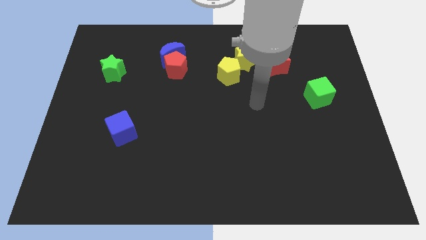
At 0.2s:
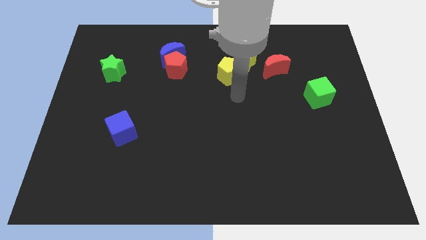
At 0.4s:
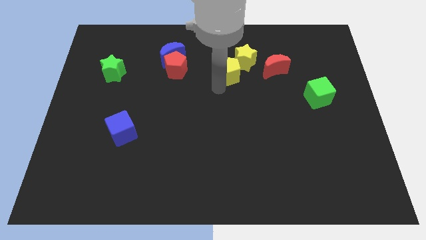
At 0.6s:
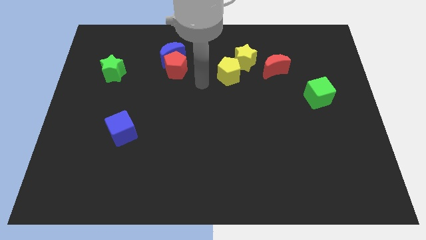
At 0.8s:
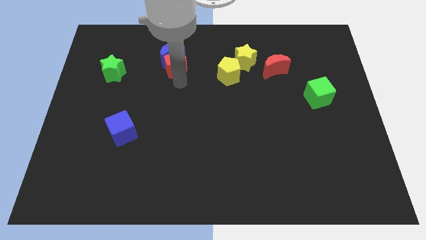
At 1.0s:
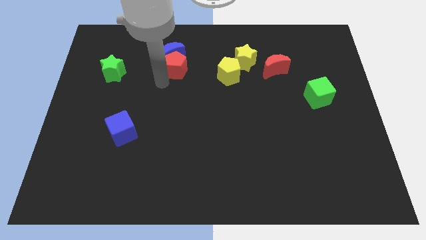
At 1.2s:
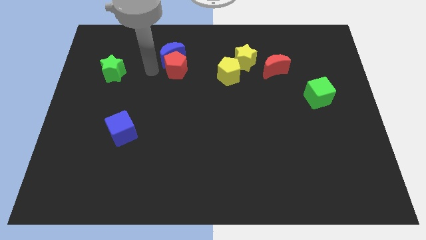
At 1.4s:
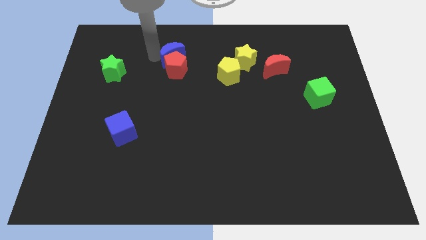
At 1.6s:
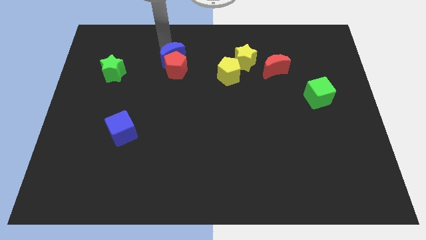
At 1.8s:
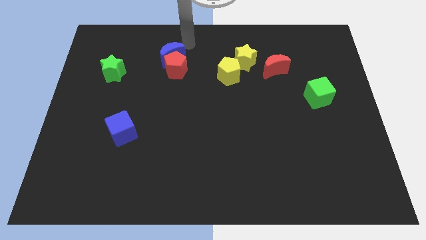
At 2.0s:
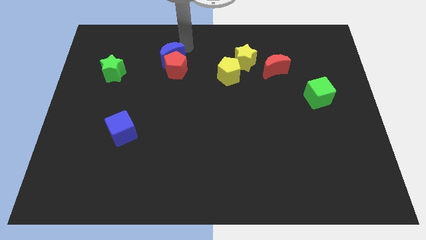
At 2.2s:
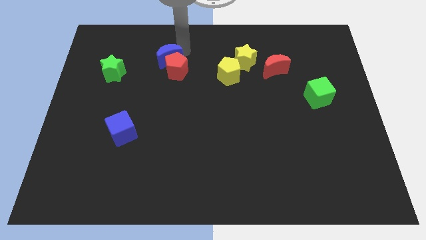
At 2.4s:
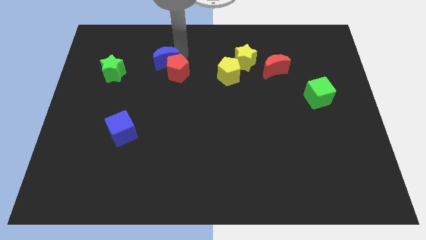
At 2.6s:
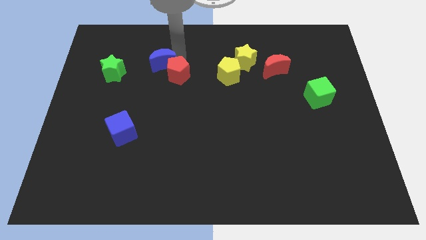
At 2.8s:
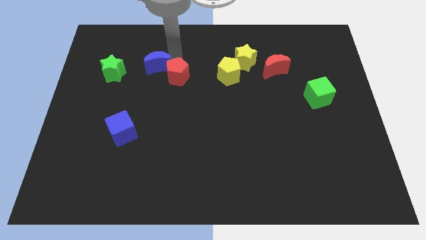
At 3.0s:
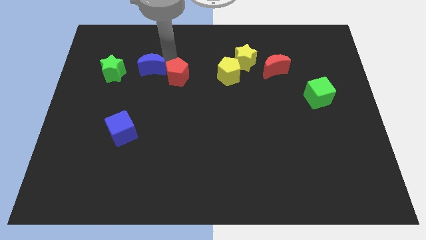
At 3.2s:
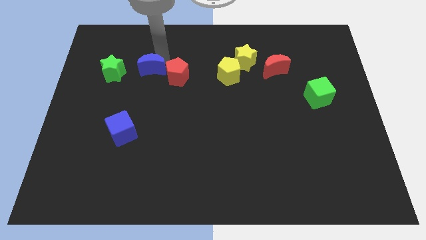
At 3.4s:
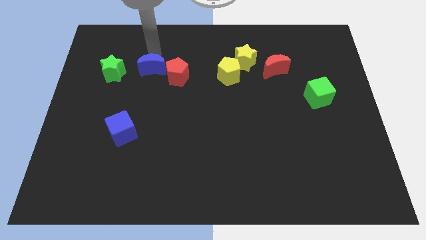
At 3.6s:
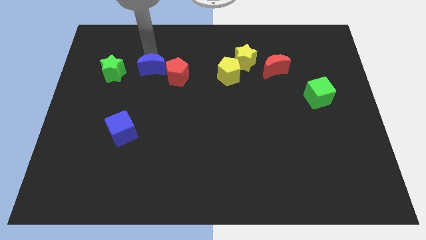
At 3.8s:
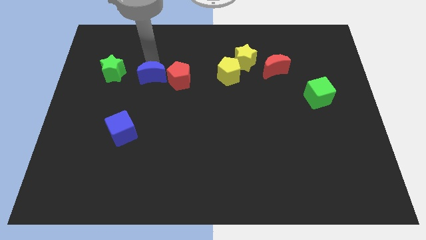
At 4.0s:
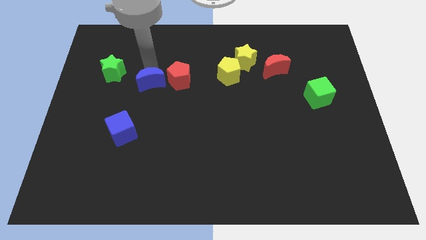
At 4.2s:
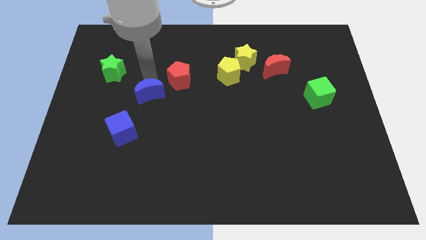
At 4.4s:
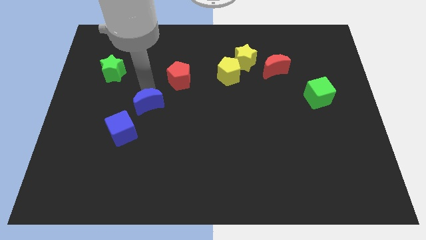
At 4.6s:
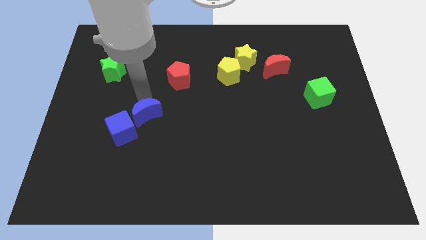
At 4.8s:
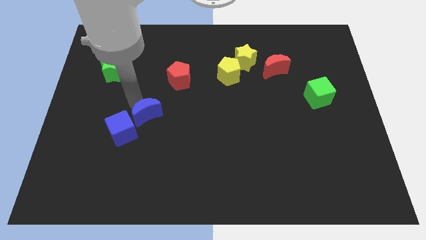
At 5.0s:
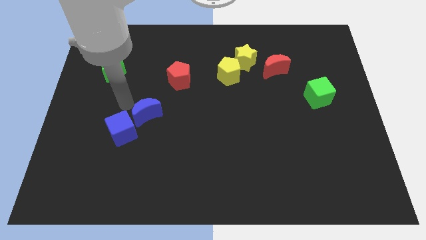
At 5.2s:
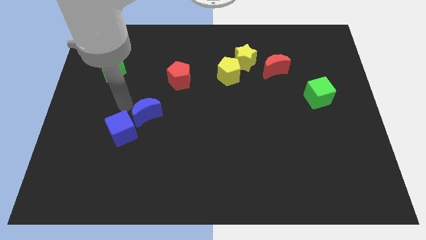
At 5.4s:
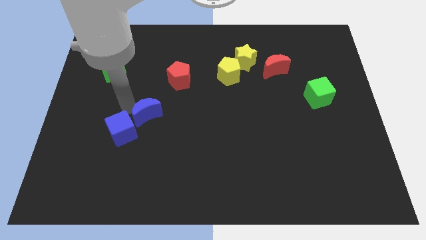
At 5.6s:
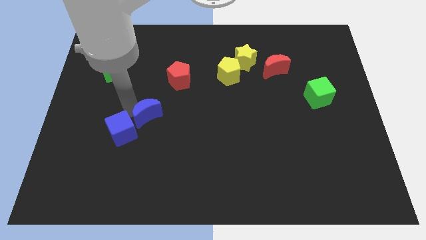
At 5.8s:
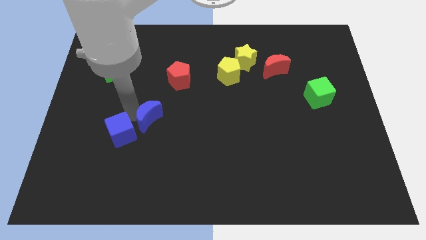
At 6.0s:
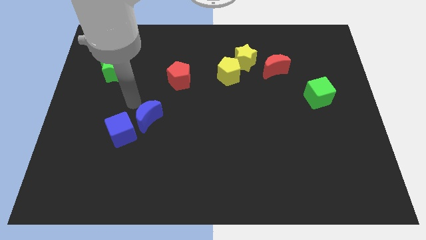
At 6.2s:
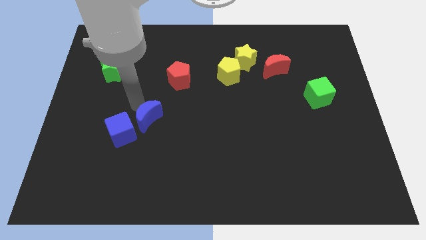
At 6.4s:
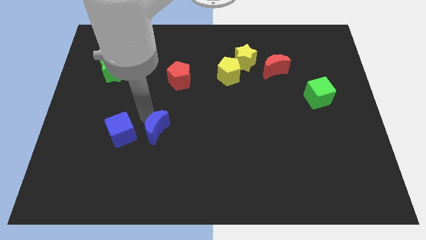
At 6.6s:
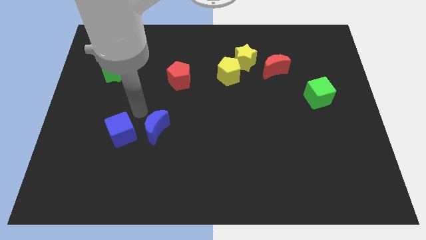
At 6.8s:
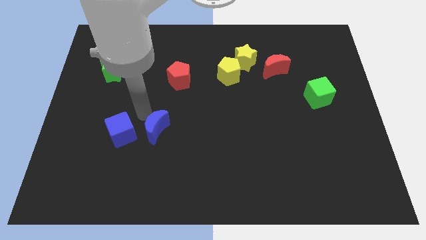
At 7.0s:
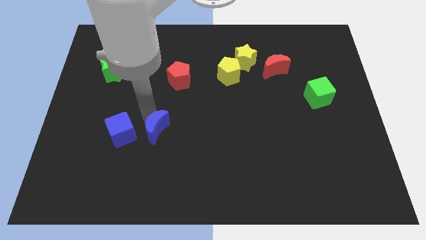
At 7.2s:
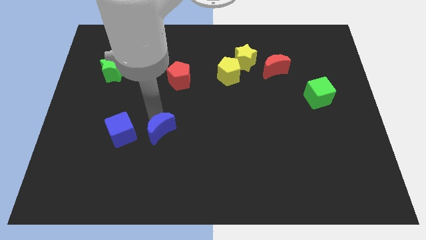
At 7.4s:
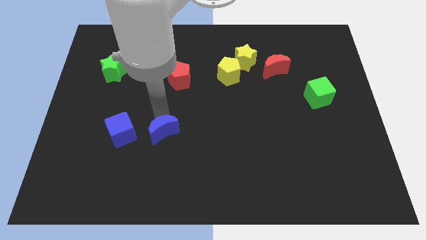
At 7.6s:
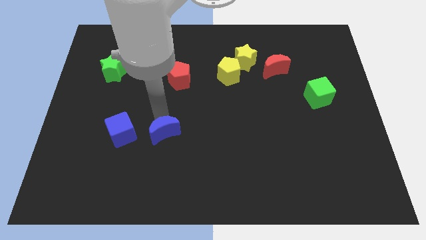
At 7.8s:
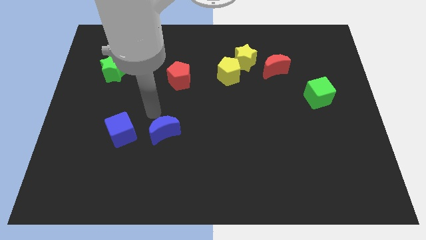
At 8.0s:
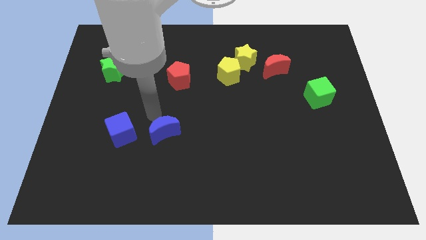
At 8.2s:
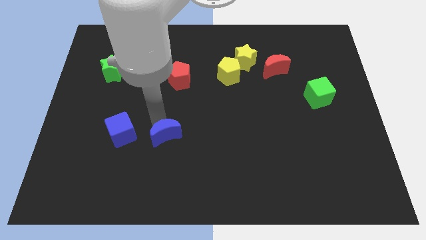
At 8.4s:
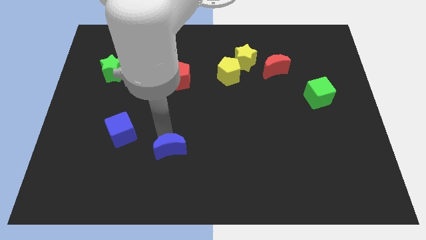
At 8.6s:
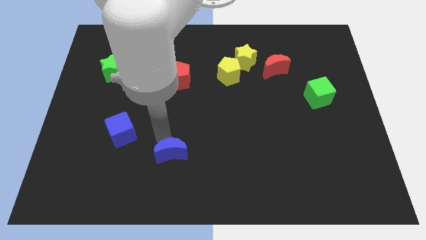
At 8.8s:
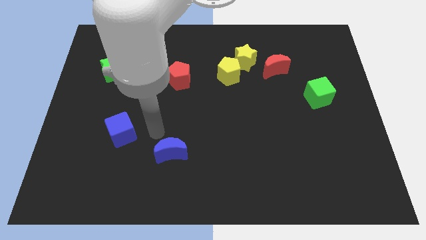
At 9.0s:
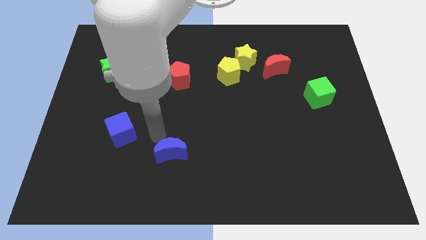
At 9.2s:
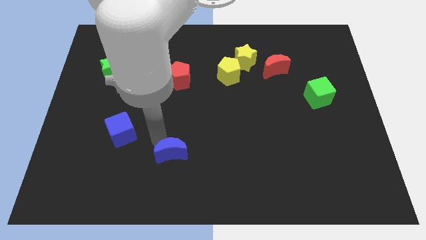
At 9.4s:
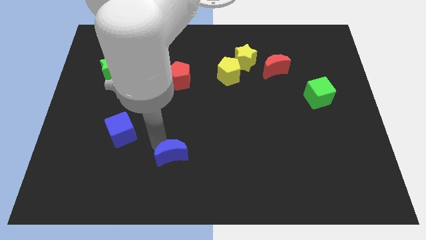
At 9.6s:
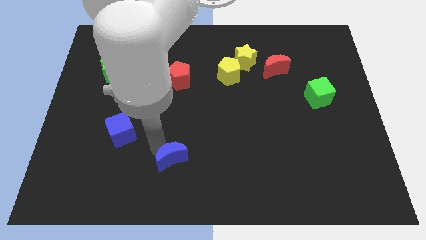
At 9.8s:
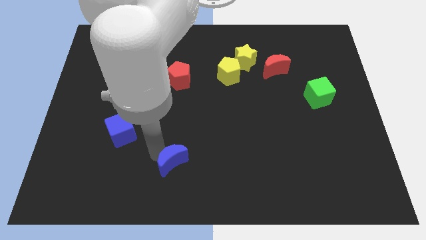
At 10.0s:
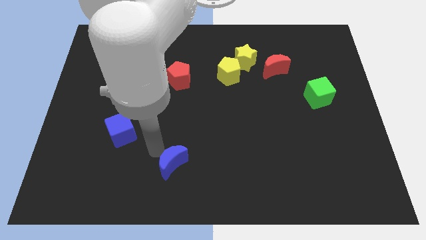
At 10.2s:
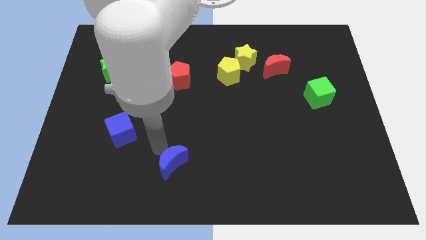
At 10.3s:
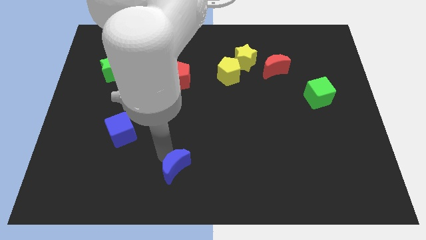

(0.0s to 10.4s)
push the blue moon to the bottom side

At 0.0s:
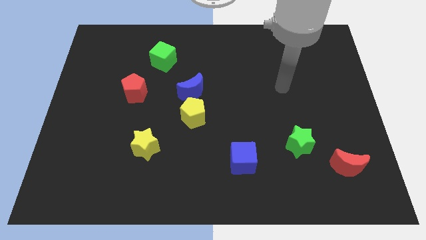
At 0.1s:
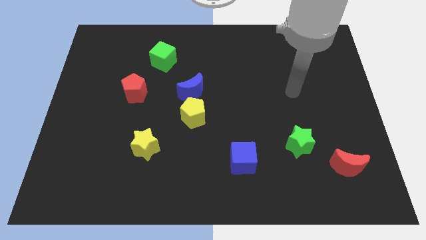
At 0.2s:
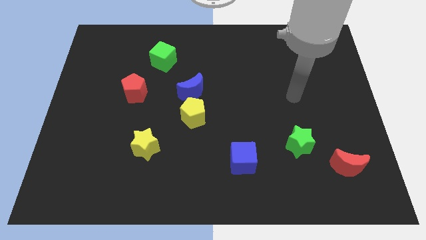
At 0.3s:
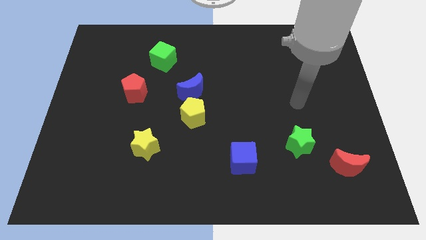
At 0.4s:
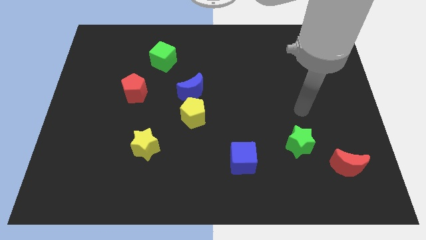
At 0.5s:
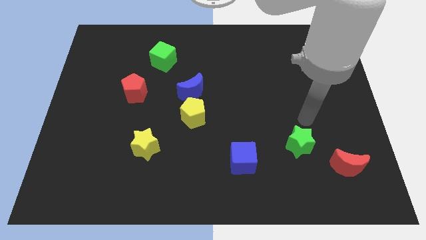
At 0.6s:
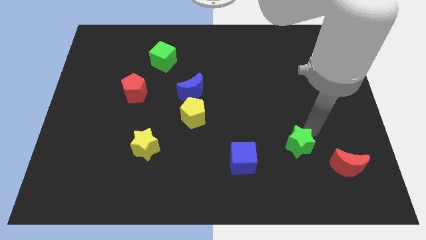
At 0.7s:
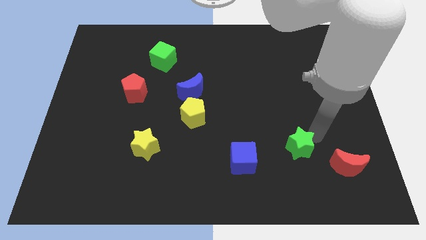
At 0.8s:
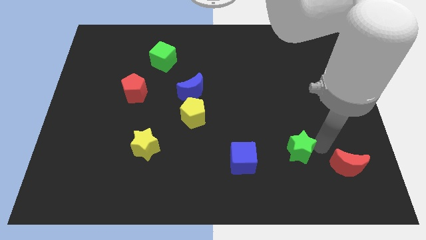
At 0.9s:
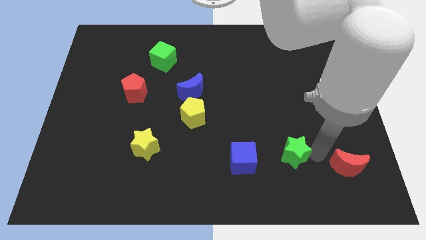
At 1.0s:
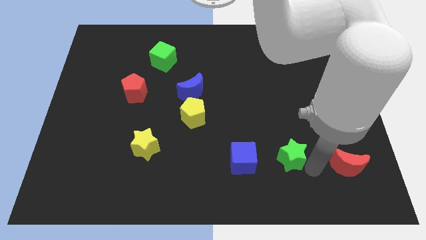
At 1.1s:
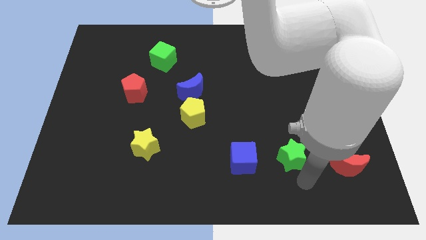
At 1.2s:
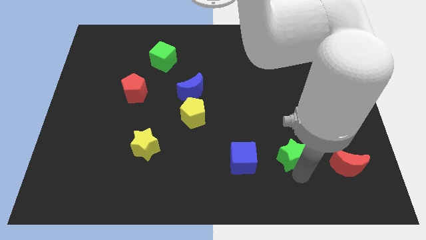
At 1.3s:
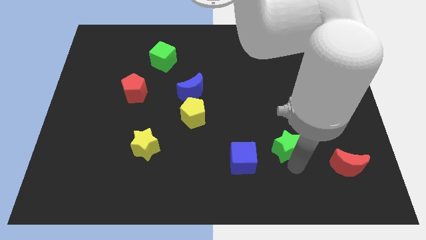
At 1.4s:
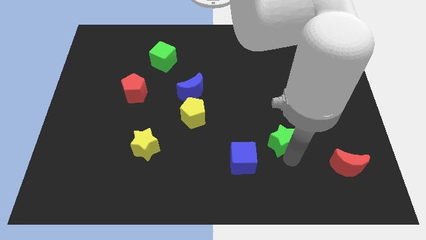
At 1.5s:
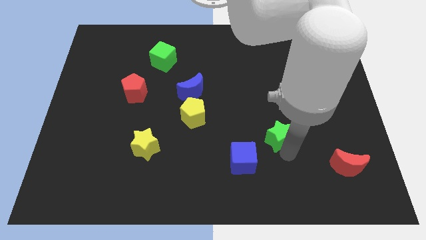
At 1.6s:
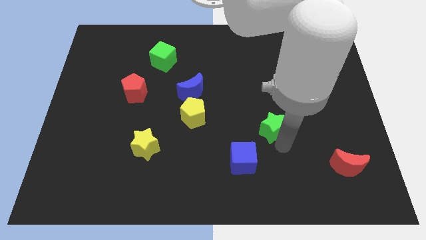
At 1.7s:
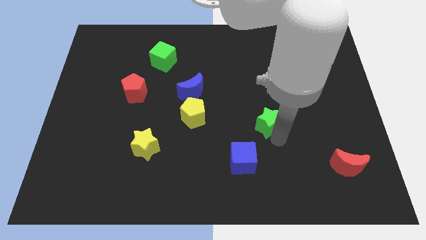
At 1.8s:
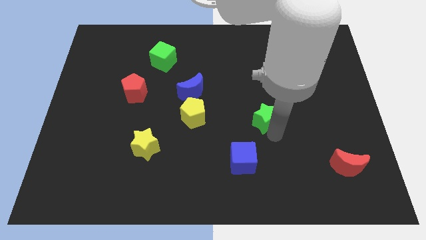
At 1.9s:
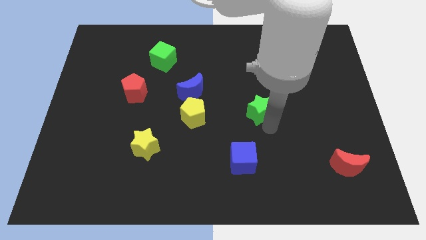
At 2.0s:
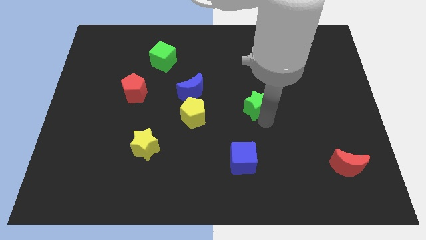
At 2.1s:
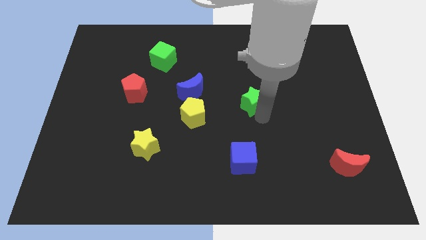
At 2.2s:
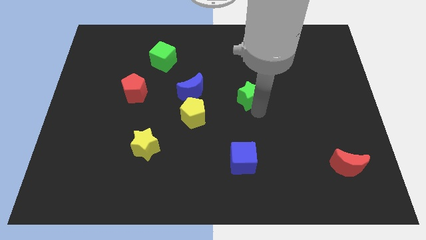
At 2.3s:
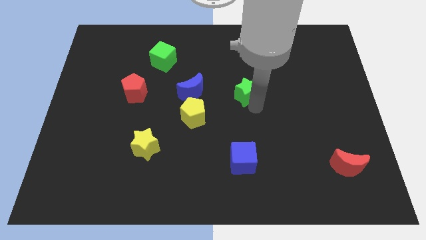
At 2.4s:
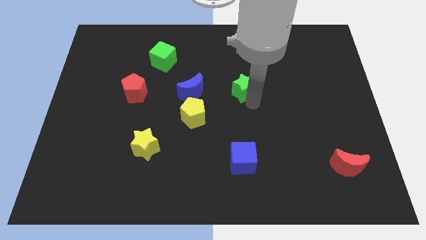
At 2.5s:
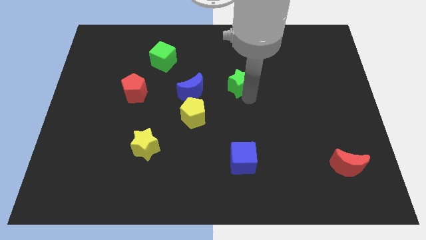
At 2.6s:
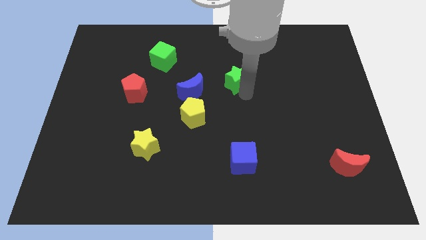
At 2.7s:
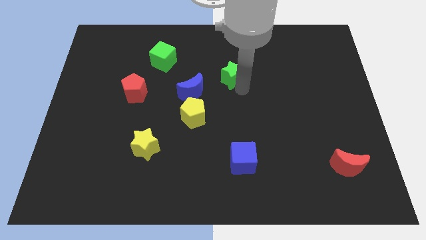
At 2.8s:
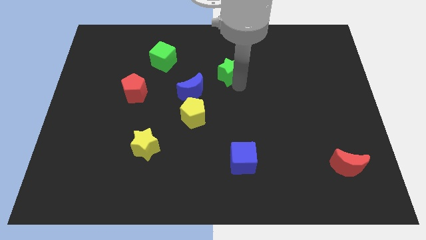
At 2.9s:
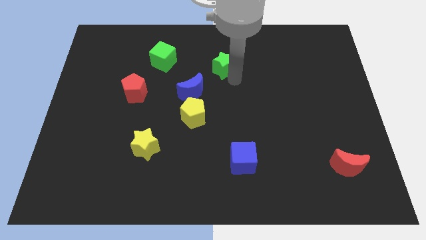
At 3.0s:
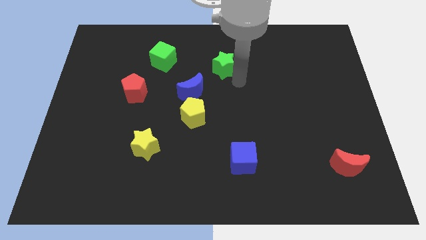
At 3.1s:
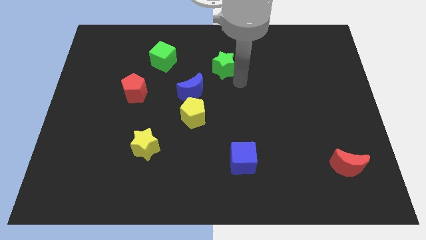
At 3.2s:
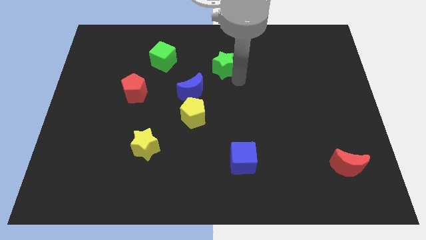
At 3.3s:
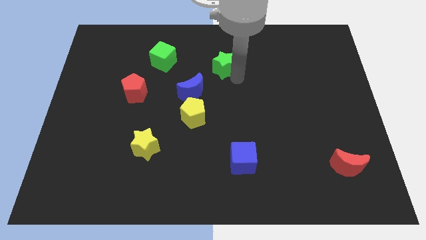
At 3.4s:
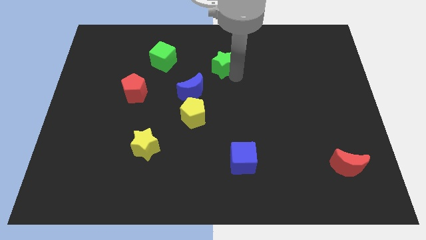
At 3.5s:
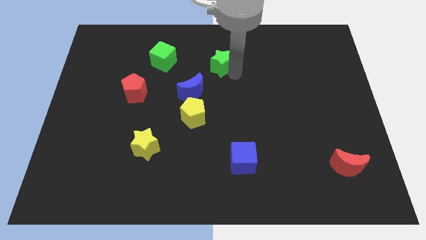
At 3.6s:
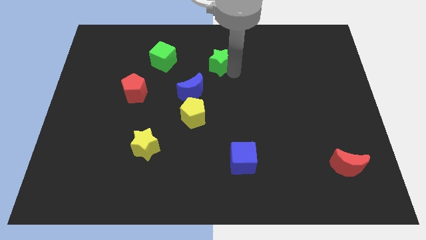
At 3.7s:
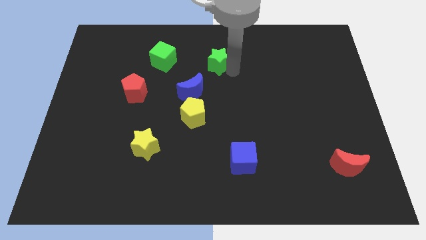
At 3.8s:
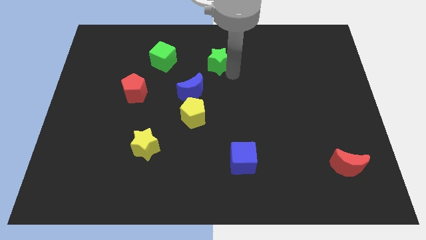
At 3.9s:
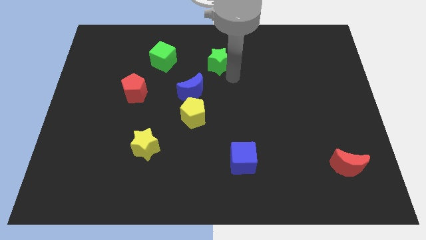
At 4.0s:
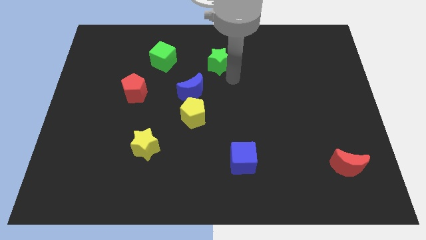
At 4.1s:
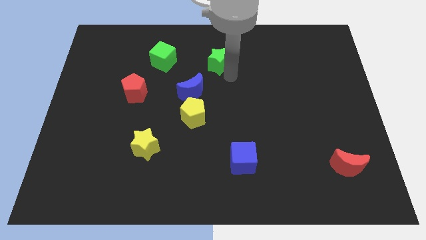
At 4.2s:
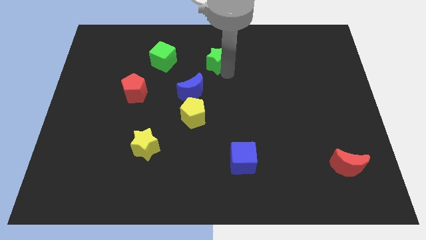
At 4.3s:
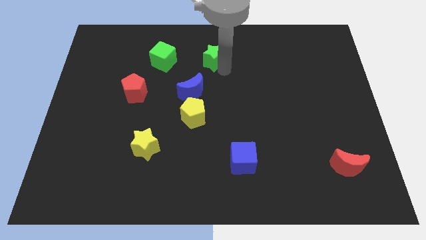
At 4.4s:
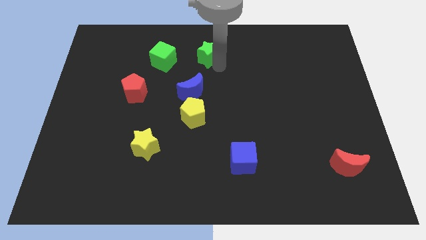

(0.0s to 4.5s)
put the green star to the top
